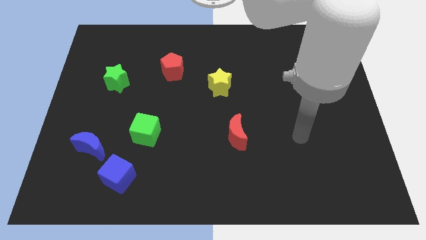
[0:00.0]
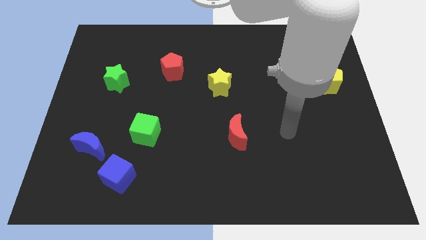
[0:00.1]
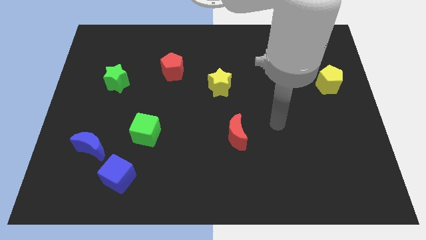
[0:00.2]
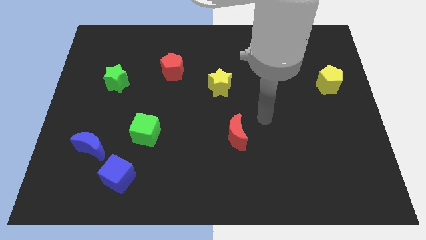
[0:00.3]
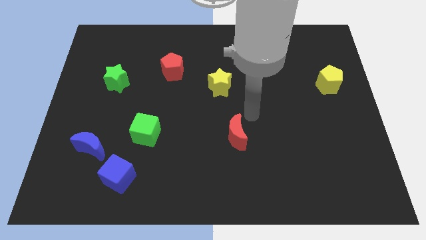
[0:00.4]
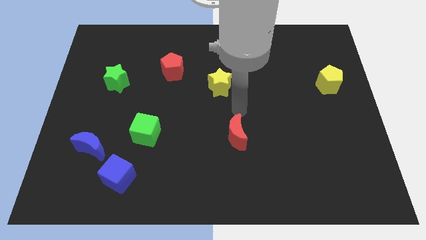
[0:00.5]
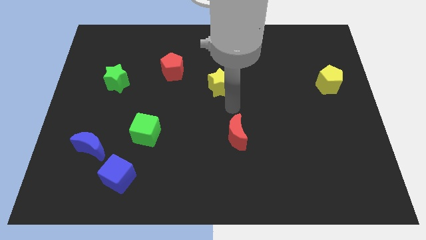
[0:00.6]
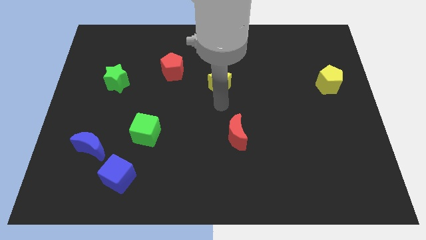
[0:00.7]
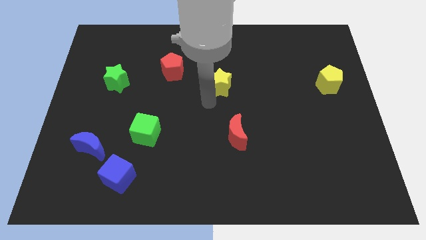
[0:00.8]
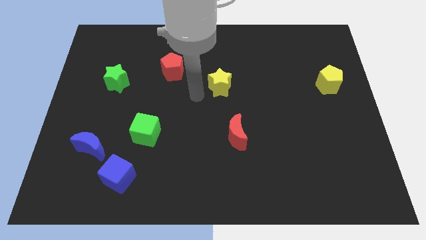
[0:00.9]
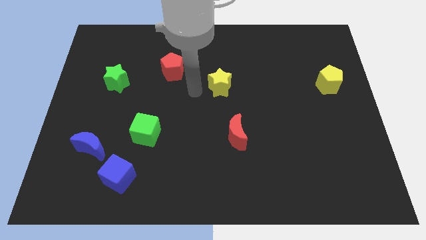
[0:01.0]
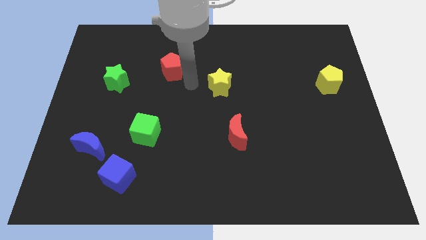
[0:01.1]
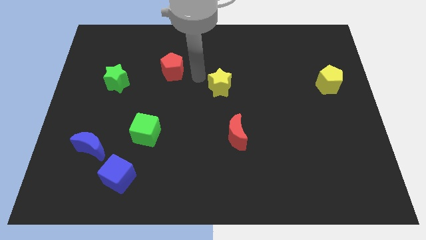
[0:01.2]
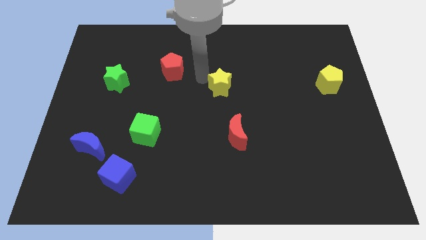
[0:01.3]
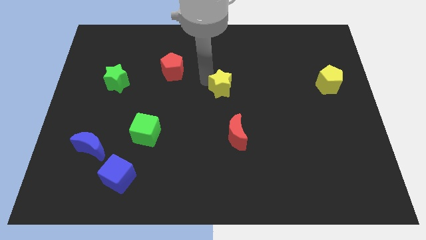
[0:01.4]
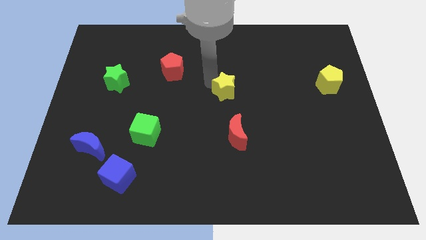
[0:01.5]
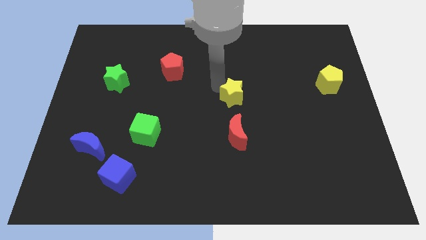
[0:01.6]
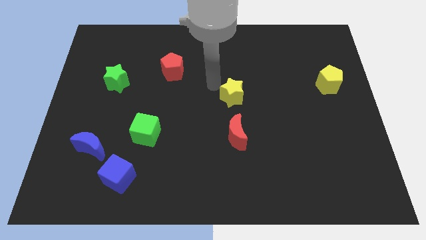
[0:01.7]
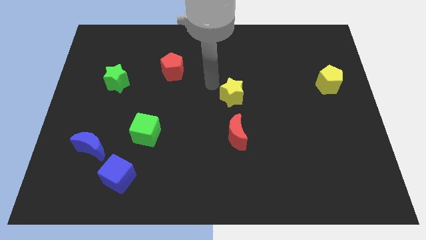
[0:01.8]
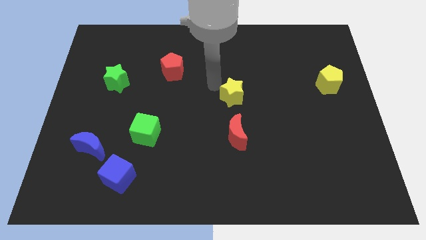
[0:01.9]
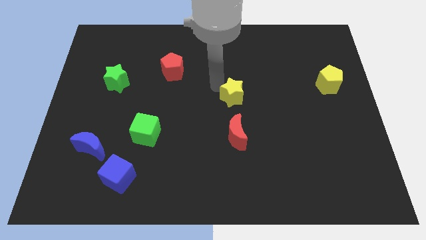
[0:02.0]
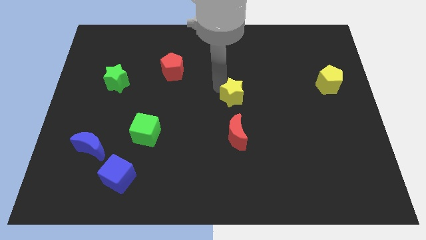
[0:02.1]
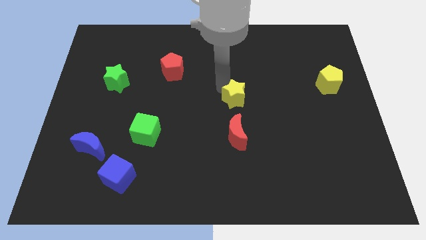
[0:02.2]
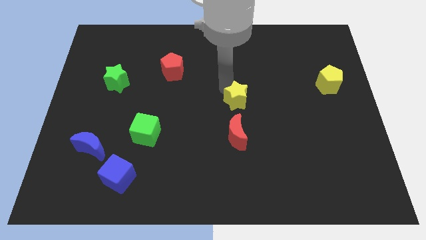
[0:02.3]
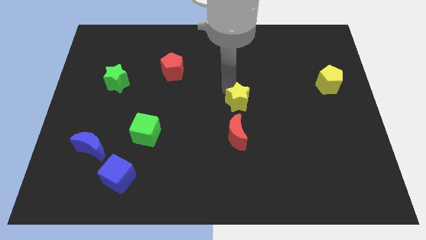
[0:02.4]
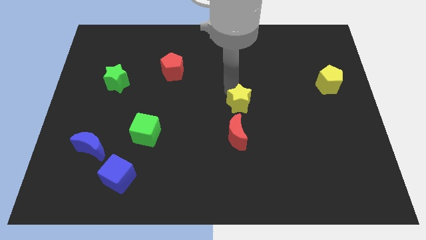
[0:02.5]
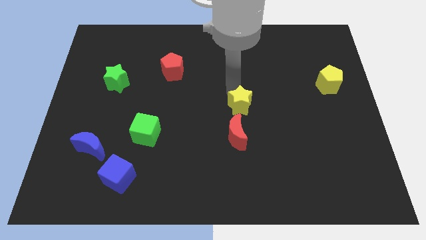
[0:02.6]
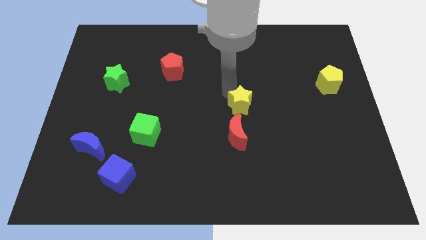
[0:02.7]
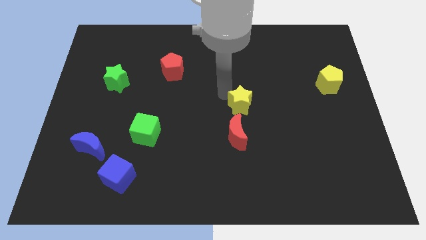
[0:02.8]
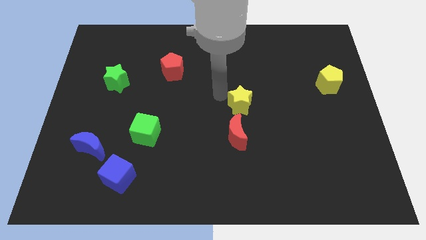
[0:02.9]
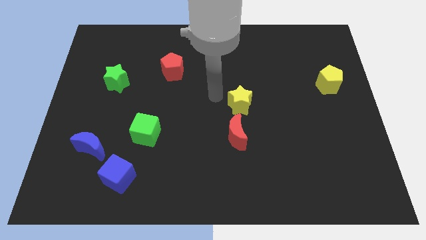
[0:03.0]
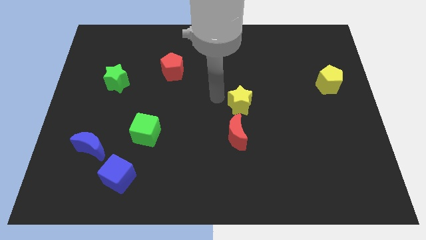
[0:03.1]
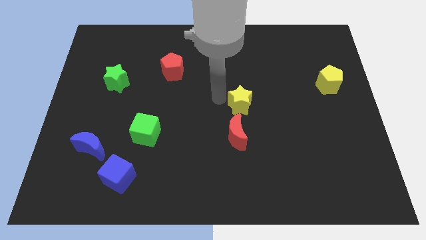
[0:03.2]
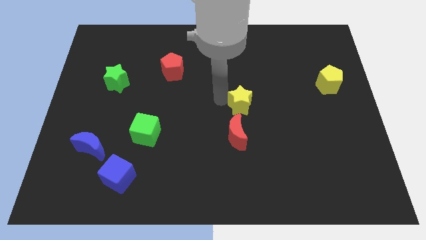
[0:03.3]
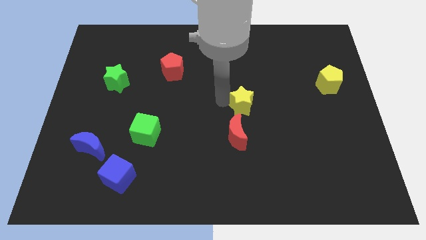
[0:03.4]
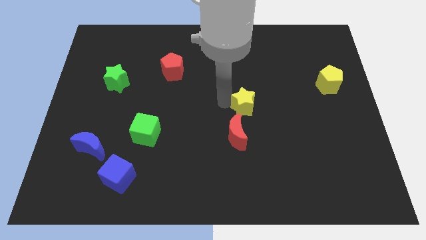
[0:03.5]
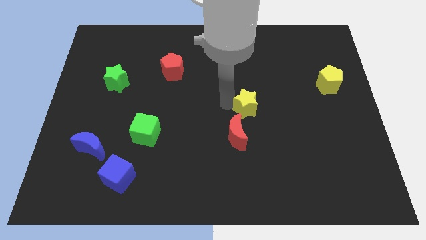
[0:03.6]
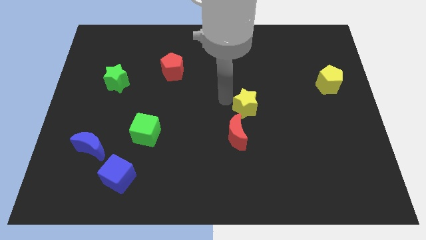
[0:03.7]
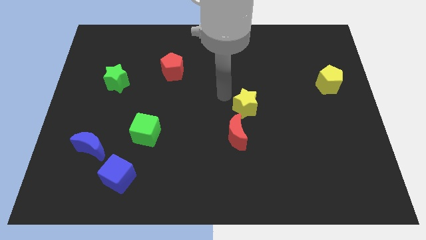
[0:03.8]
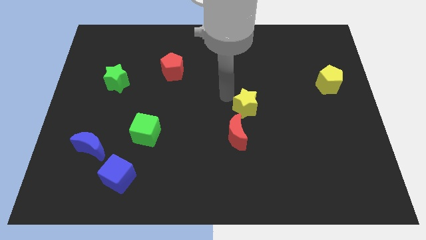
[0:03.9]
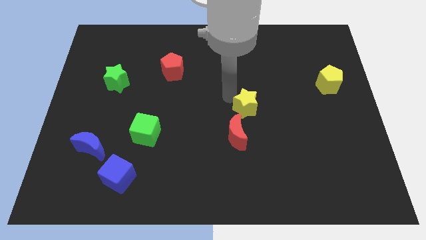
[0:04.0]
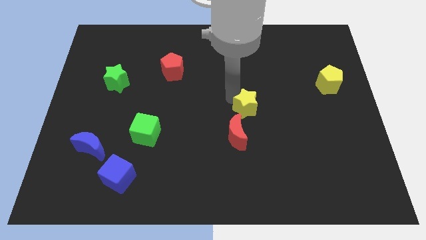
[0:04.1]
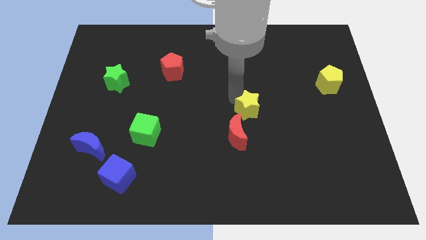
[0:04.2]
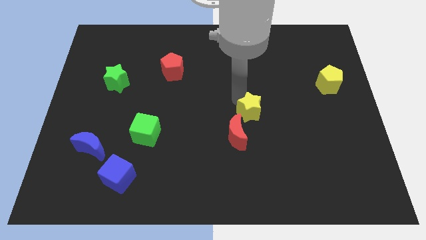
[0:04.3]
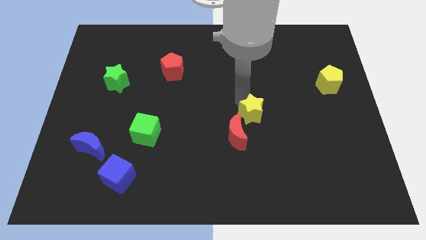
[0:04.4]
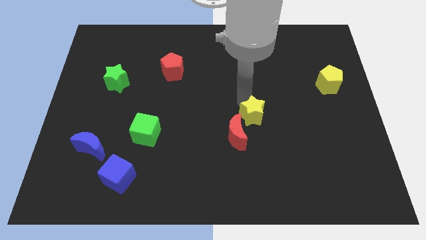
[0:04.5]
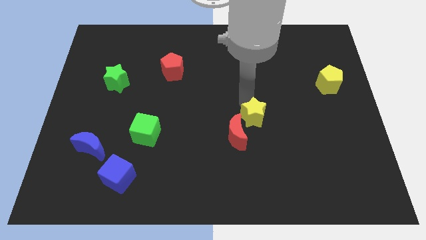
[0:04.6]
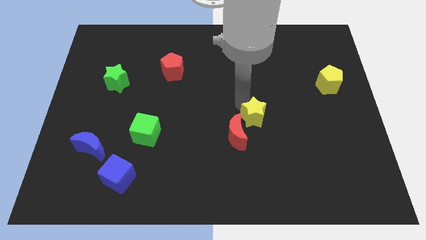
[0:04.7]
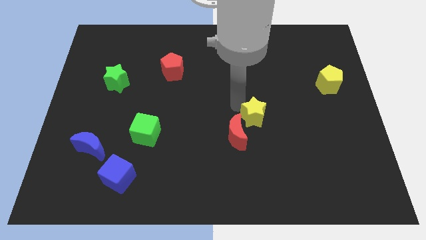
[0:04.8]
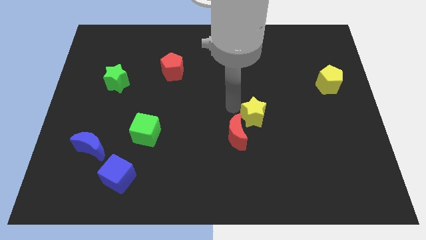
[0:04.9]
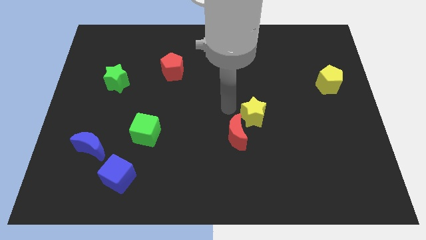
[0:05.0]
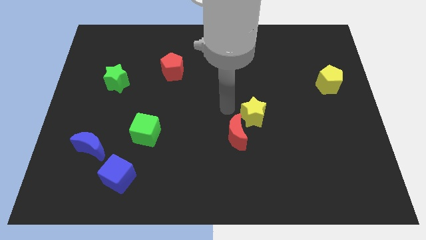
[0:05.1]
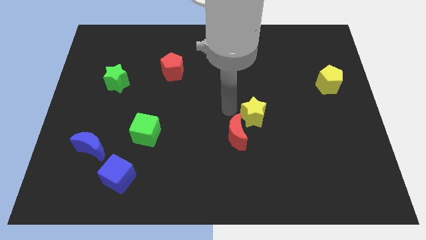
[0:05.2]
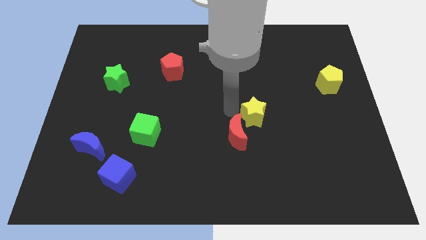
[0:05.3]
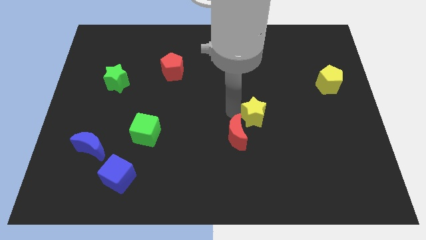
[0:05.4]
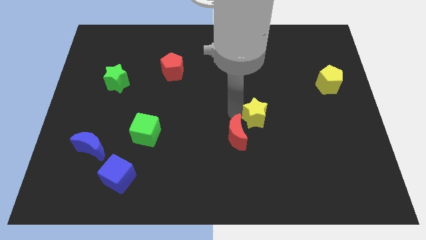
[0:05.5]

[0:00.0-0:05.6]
push the yellow star to the right of the red moon
